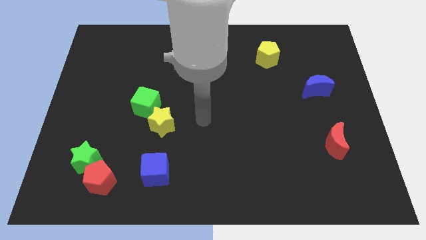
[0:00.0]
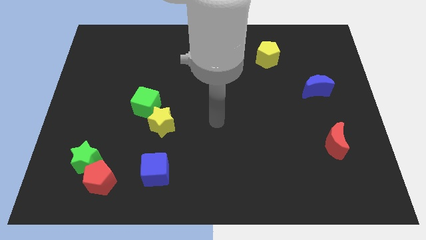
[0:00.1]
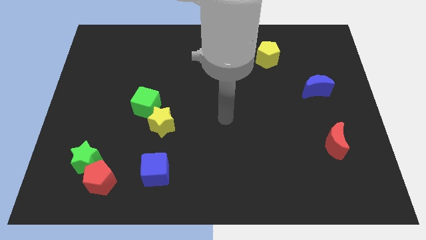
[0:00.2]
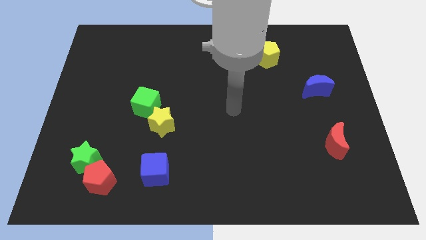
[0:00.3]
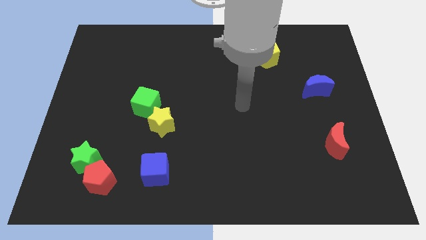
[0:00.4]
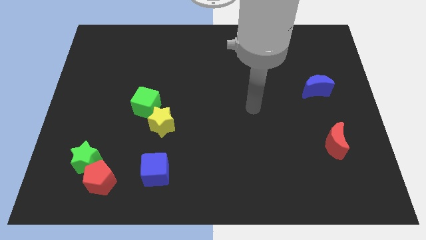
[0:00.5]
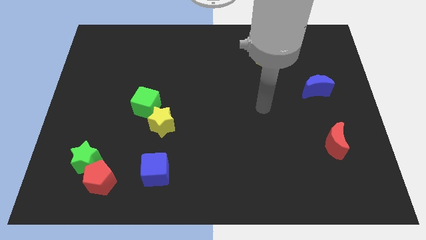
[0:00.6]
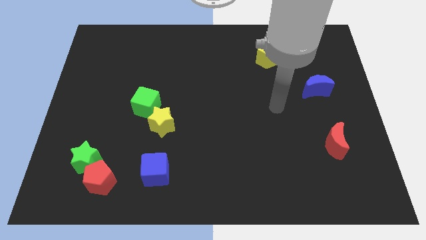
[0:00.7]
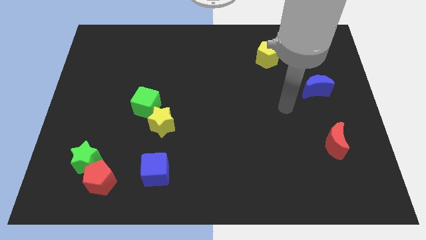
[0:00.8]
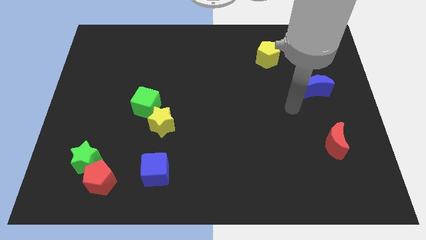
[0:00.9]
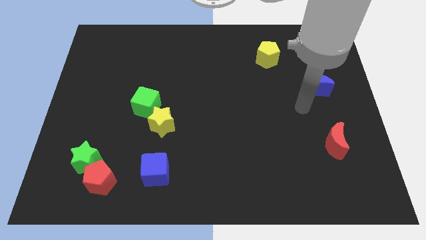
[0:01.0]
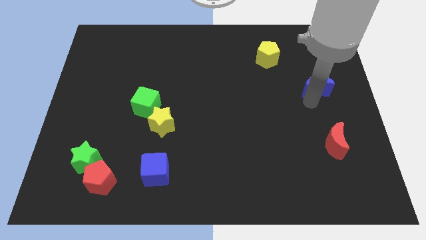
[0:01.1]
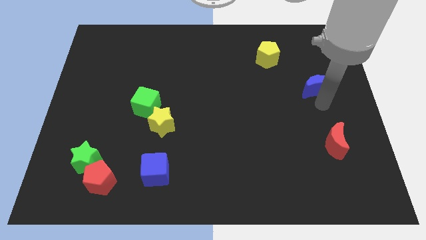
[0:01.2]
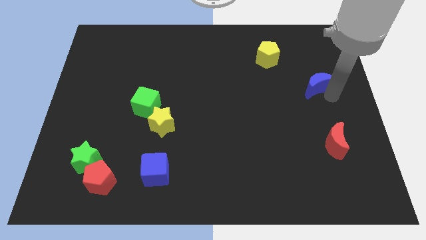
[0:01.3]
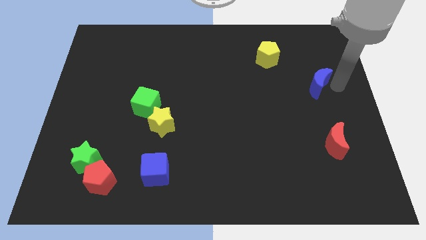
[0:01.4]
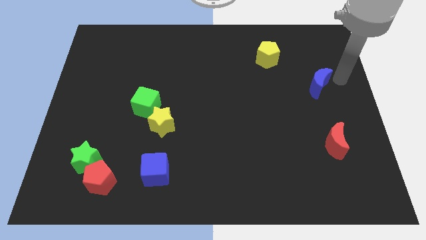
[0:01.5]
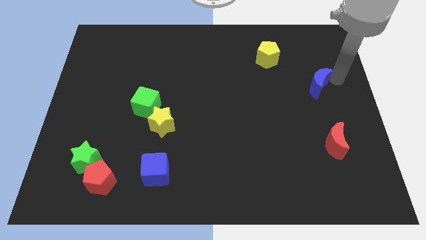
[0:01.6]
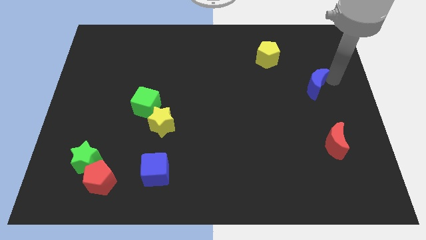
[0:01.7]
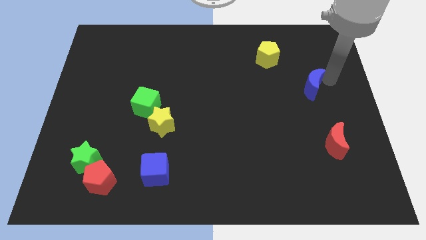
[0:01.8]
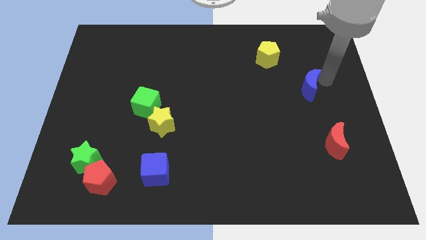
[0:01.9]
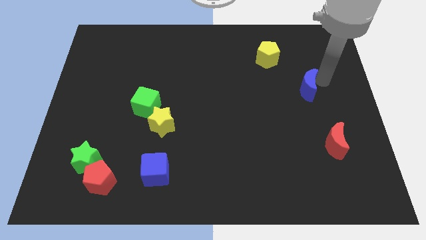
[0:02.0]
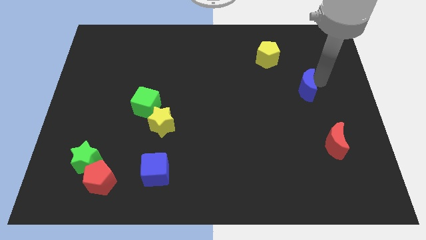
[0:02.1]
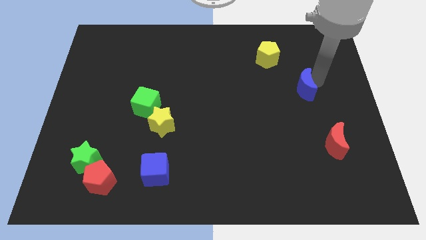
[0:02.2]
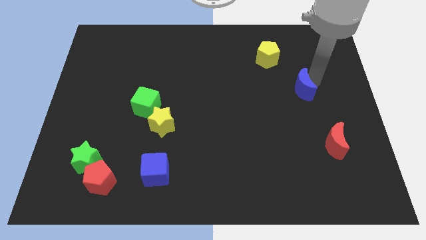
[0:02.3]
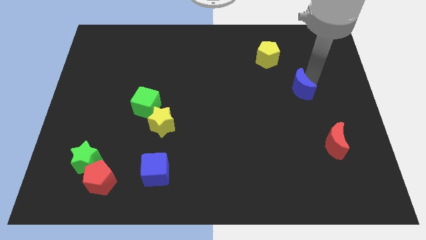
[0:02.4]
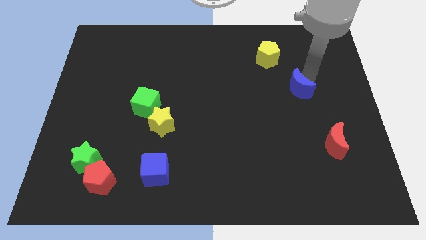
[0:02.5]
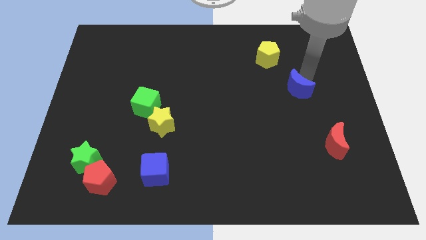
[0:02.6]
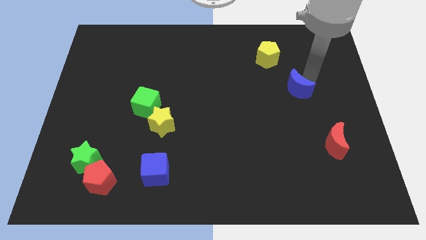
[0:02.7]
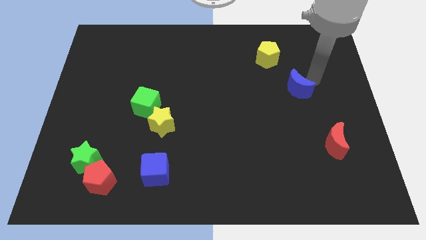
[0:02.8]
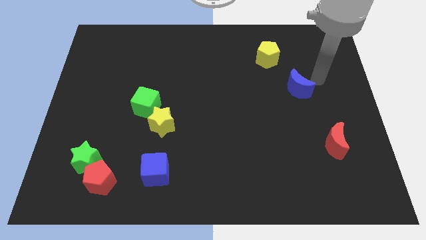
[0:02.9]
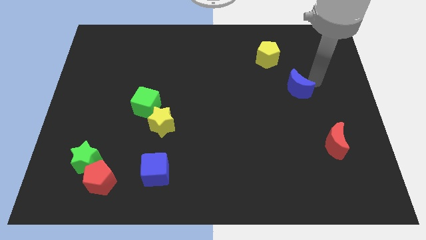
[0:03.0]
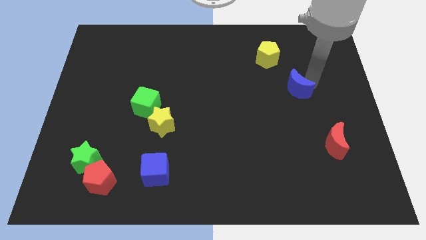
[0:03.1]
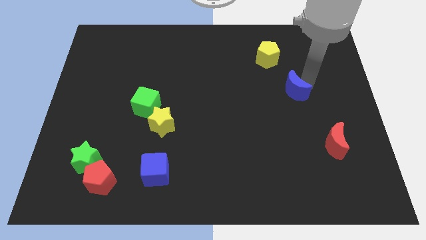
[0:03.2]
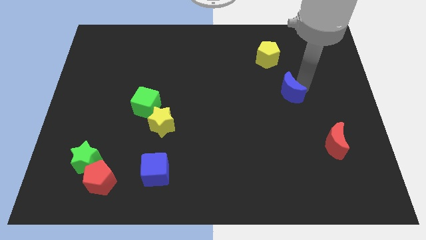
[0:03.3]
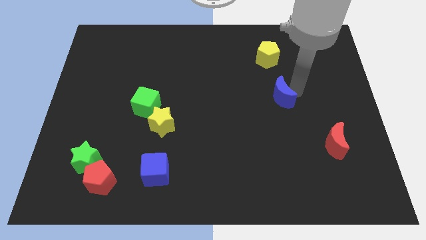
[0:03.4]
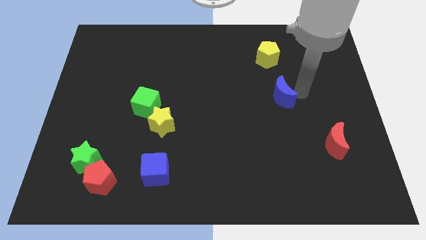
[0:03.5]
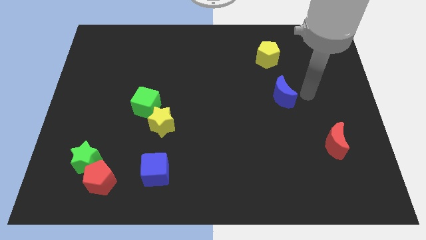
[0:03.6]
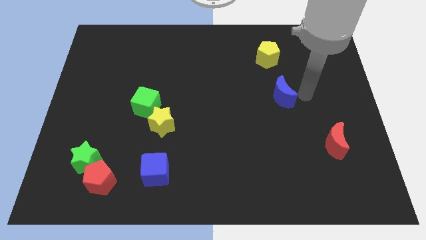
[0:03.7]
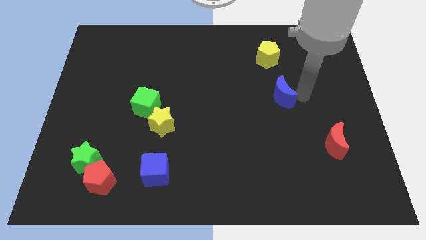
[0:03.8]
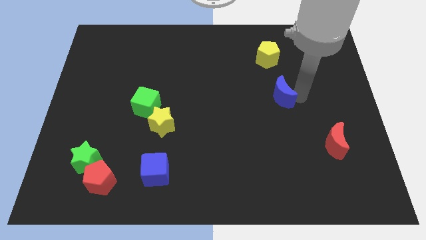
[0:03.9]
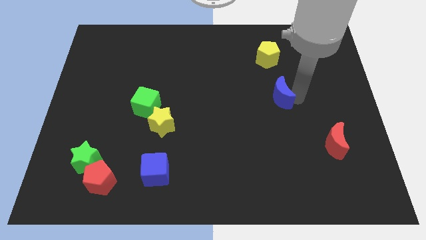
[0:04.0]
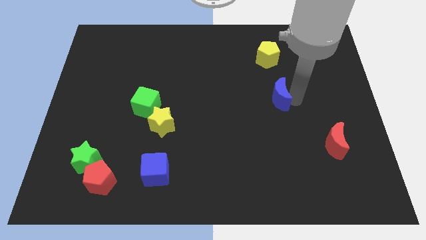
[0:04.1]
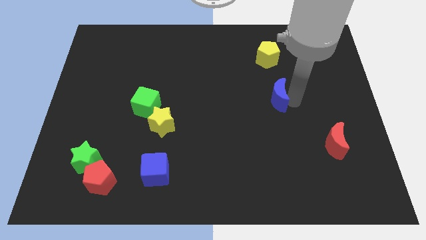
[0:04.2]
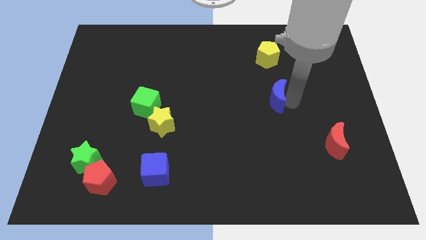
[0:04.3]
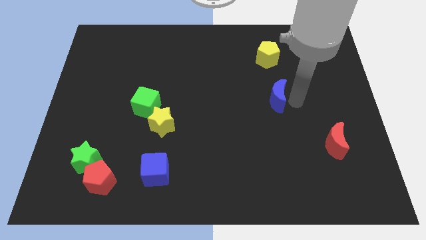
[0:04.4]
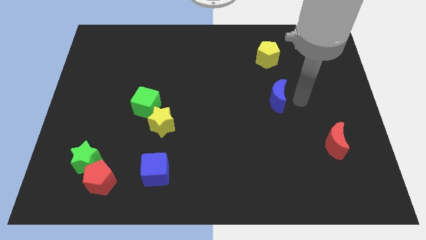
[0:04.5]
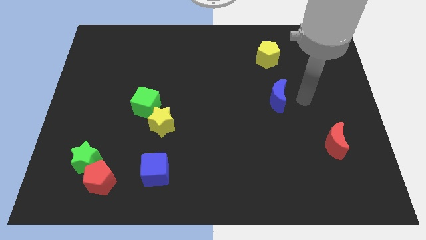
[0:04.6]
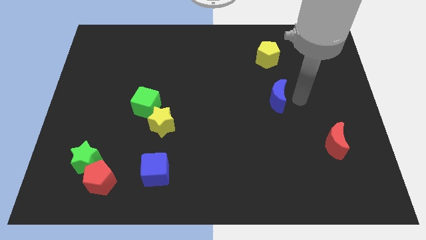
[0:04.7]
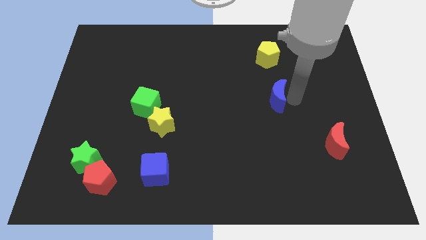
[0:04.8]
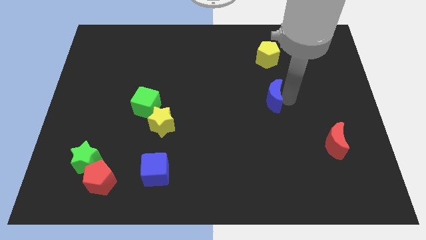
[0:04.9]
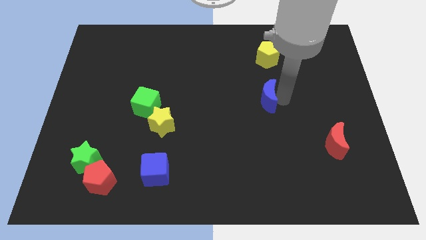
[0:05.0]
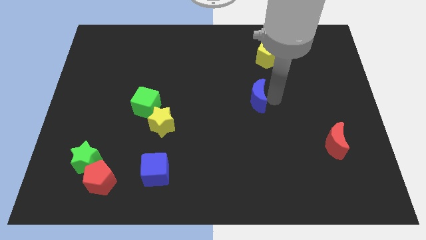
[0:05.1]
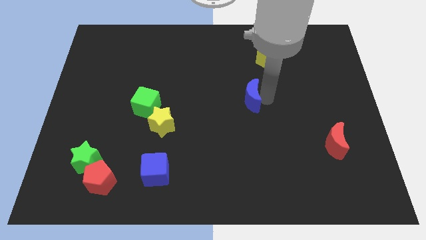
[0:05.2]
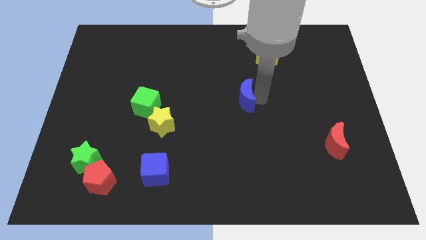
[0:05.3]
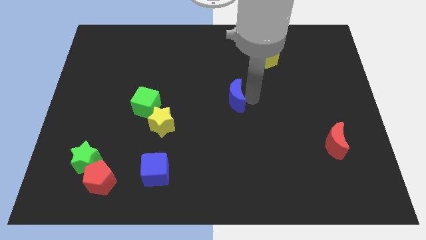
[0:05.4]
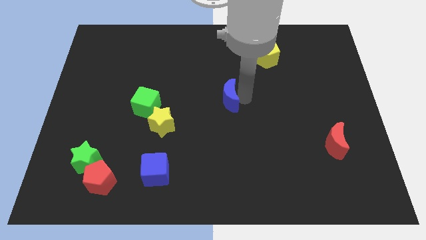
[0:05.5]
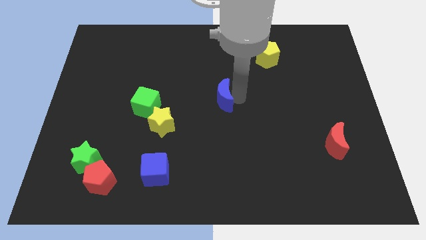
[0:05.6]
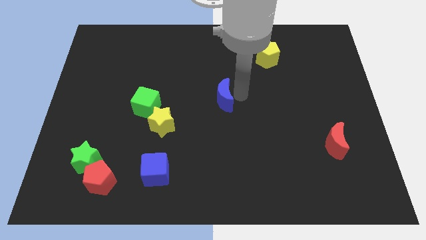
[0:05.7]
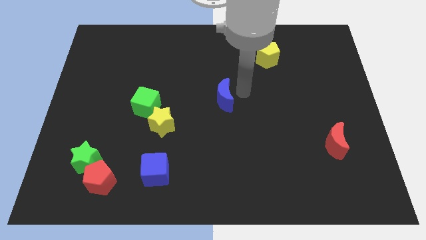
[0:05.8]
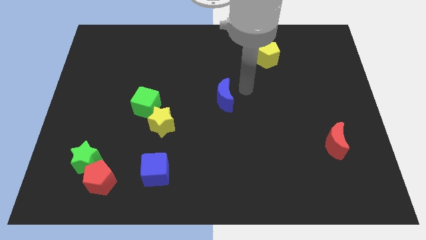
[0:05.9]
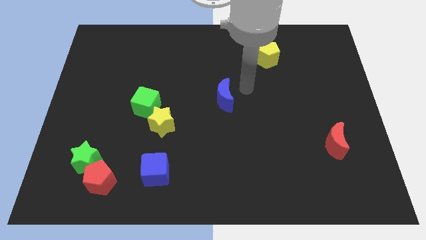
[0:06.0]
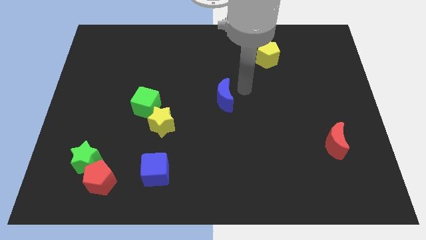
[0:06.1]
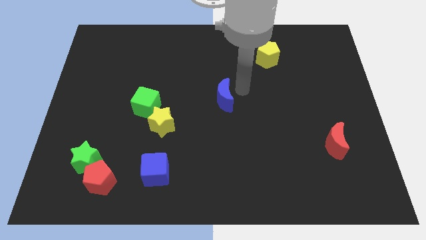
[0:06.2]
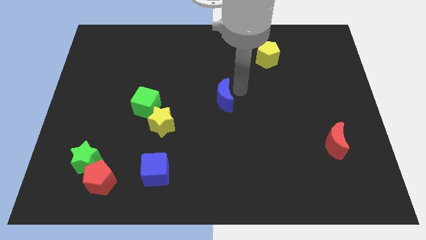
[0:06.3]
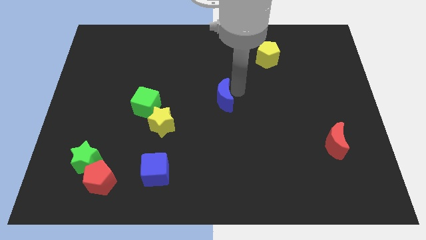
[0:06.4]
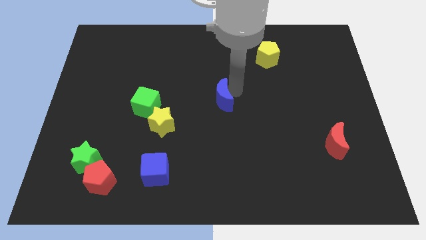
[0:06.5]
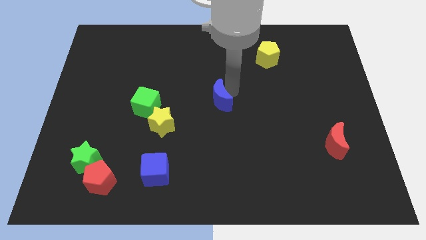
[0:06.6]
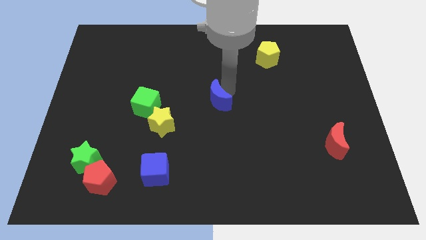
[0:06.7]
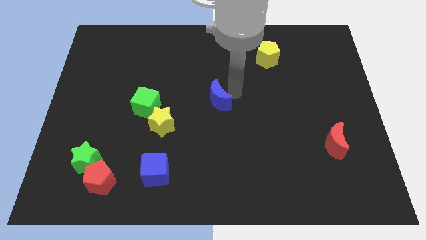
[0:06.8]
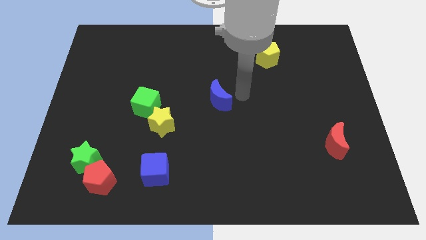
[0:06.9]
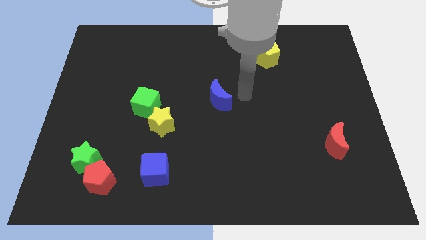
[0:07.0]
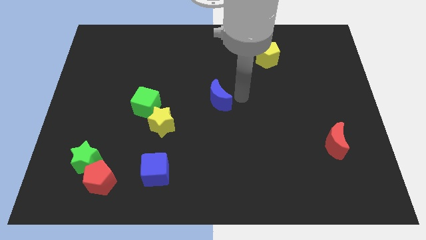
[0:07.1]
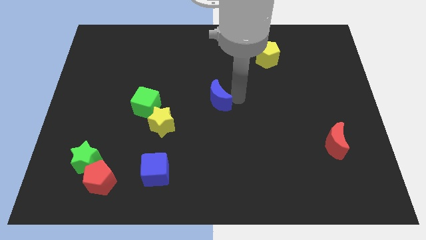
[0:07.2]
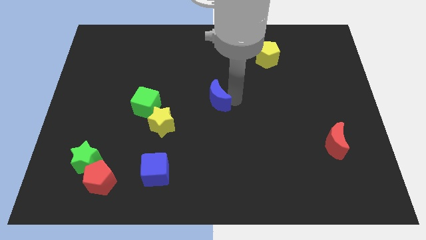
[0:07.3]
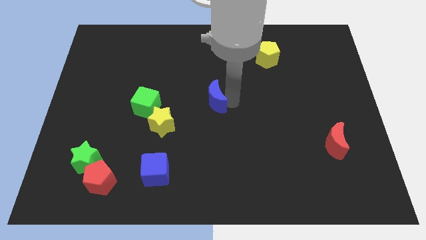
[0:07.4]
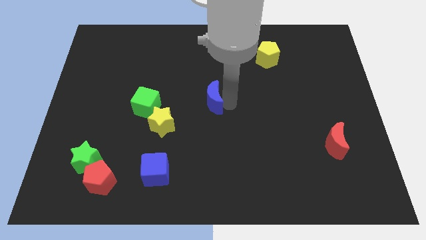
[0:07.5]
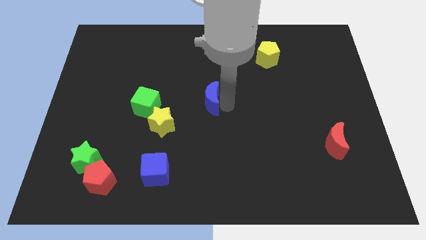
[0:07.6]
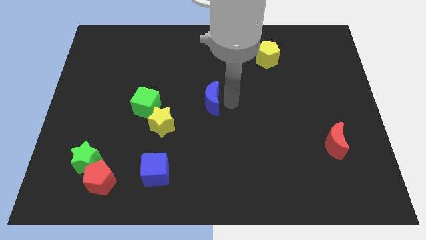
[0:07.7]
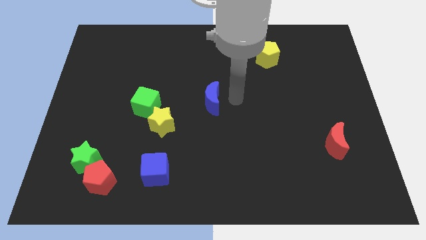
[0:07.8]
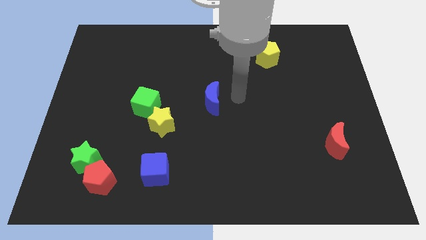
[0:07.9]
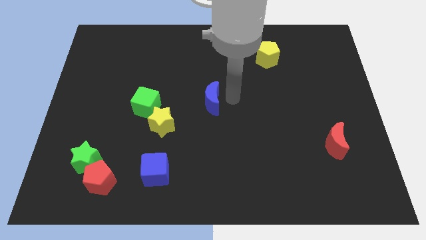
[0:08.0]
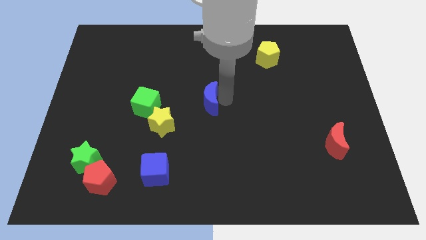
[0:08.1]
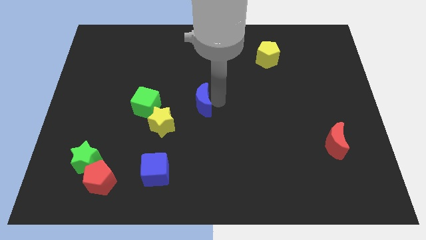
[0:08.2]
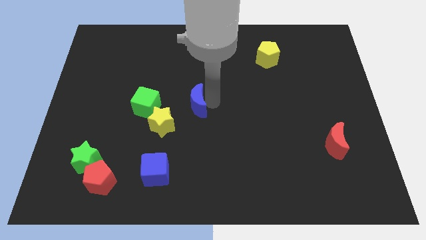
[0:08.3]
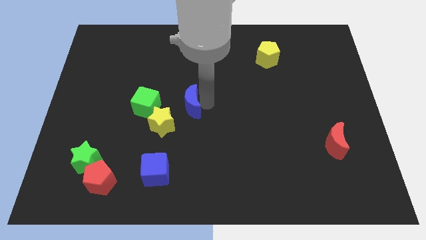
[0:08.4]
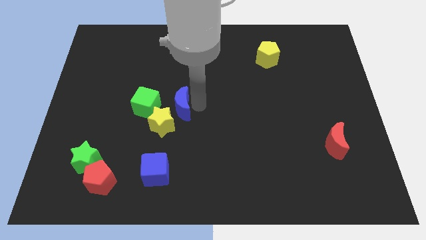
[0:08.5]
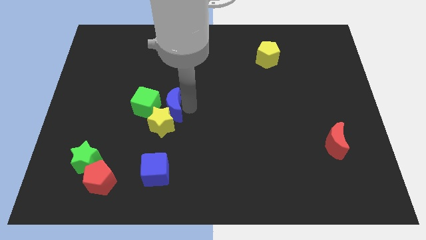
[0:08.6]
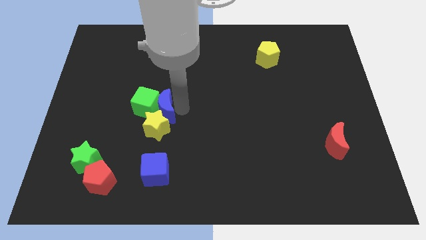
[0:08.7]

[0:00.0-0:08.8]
move the blue moon close to the green cube
